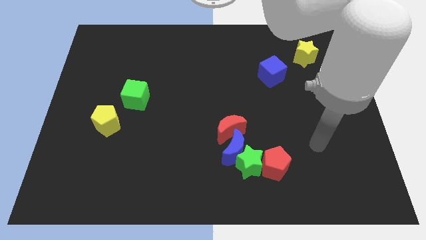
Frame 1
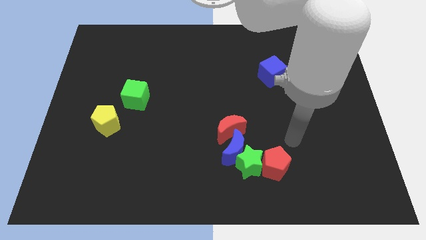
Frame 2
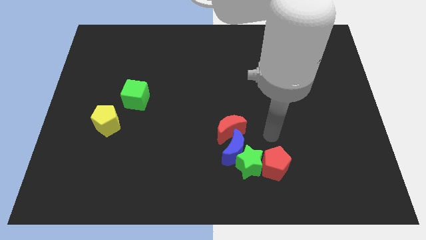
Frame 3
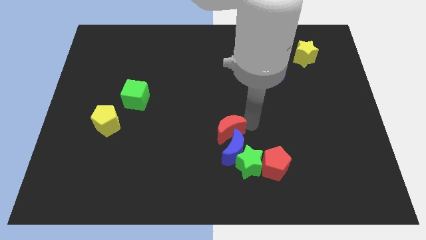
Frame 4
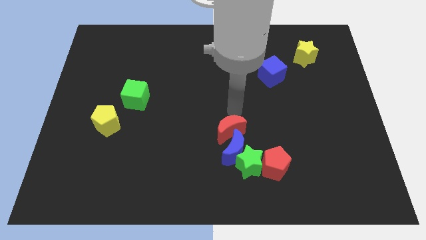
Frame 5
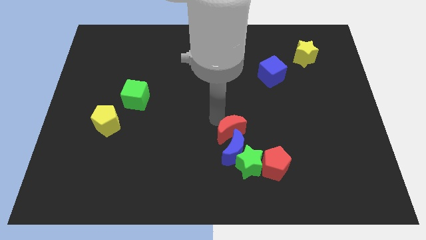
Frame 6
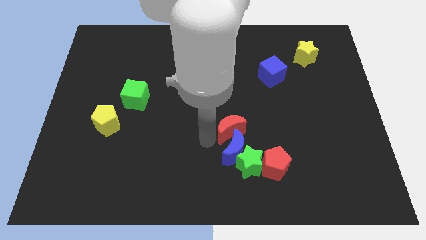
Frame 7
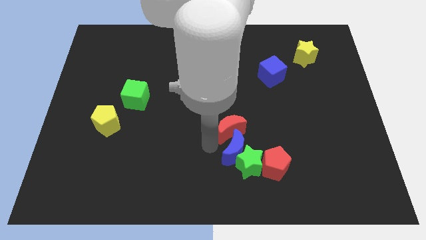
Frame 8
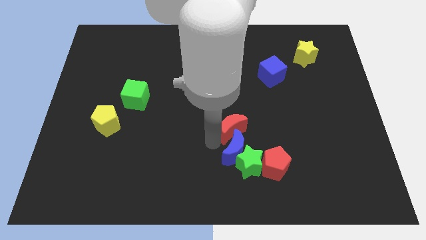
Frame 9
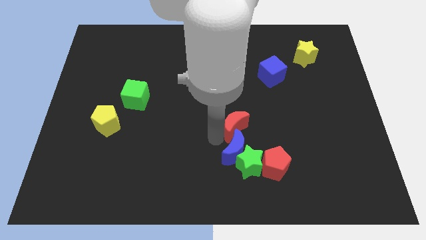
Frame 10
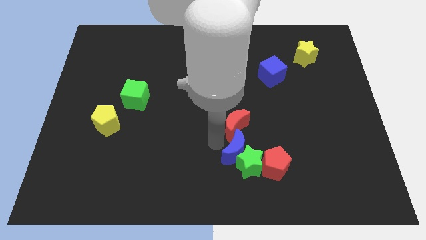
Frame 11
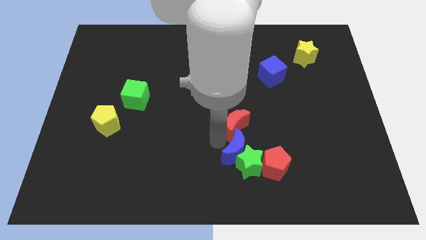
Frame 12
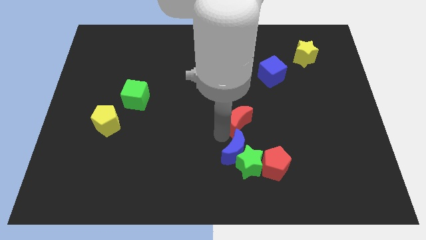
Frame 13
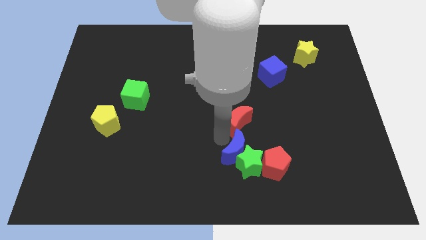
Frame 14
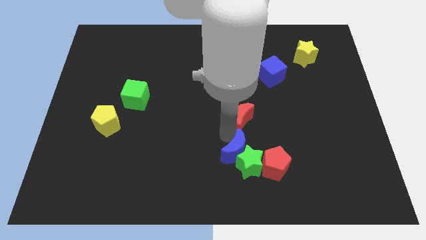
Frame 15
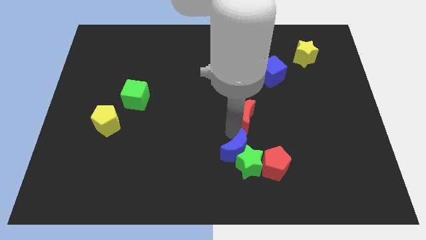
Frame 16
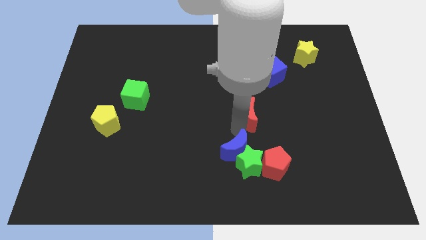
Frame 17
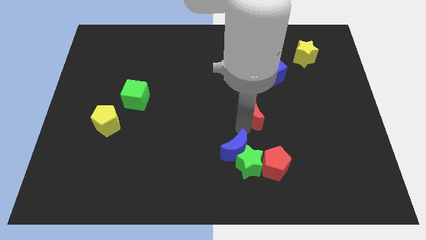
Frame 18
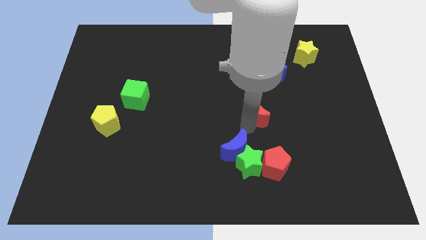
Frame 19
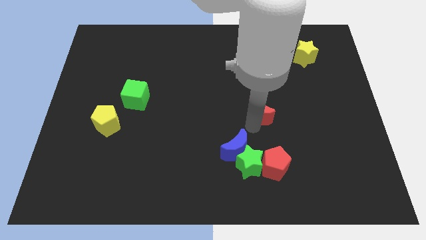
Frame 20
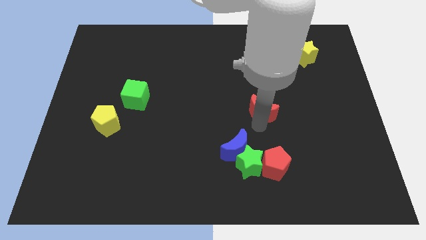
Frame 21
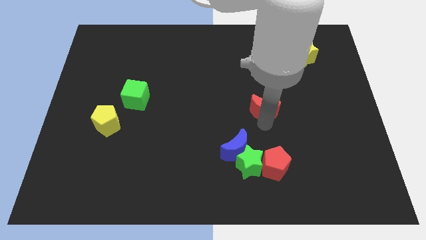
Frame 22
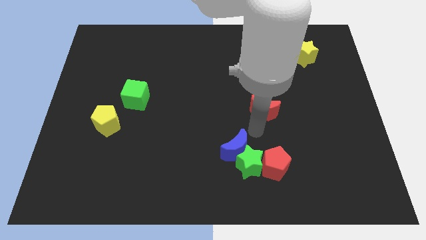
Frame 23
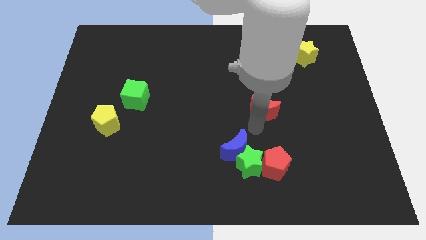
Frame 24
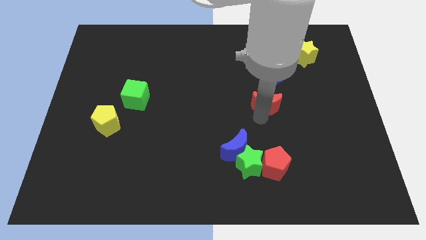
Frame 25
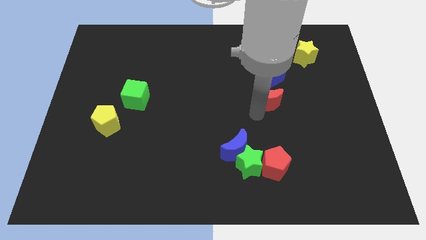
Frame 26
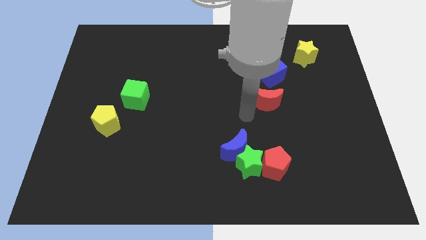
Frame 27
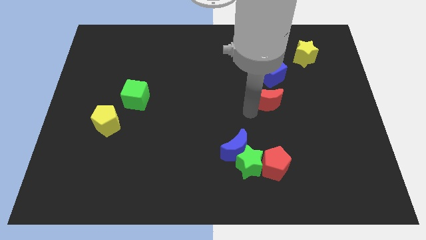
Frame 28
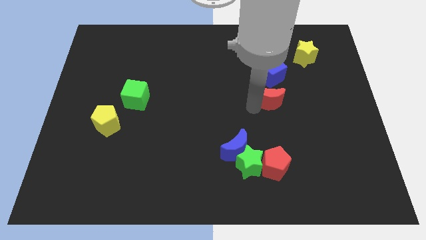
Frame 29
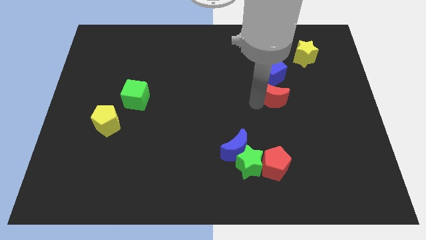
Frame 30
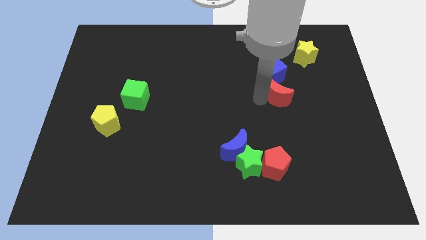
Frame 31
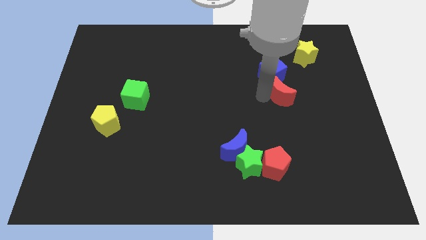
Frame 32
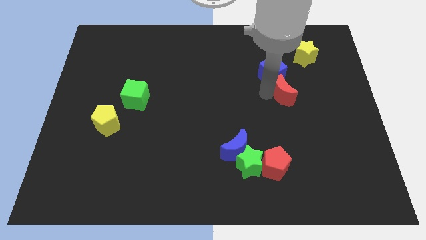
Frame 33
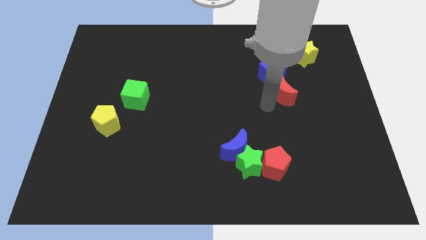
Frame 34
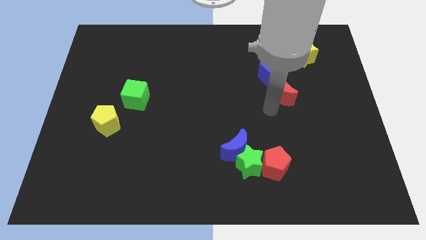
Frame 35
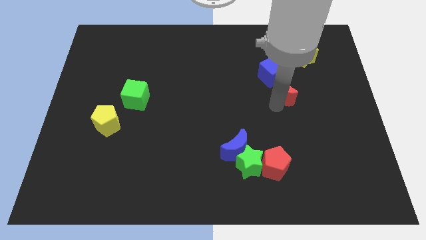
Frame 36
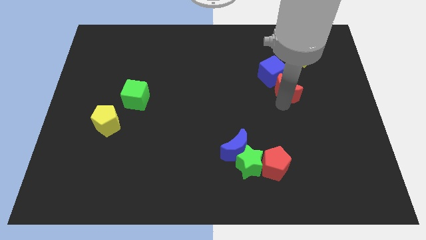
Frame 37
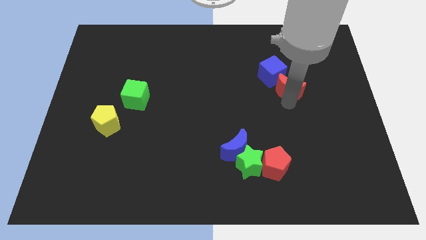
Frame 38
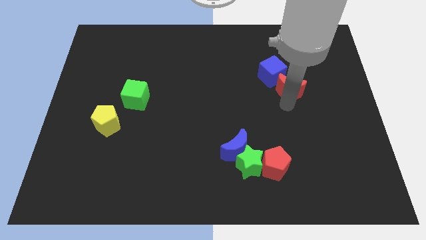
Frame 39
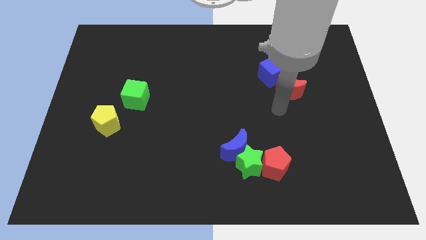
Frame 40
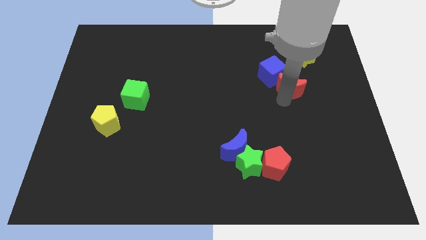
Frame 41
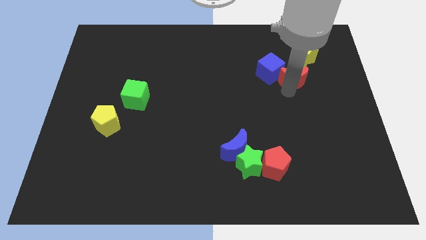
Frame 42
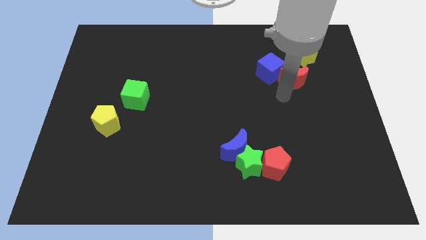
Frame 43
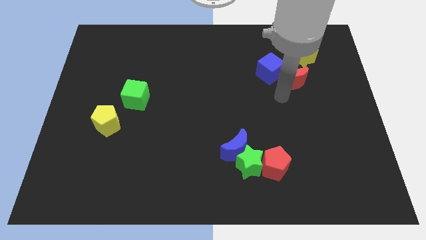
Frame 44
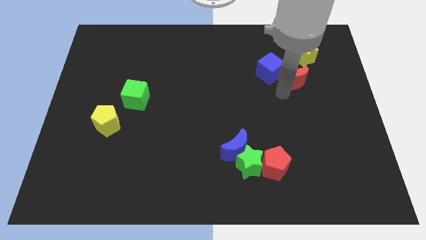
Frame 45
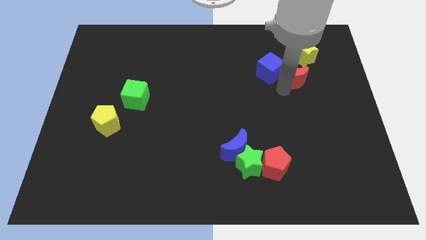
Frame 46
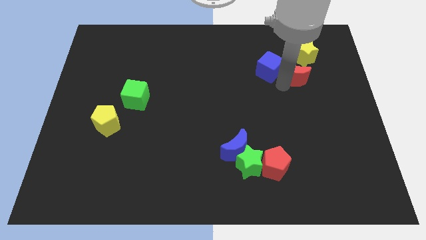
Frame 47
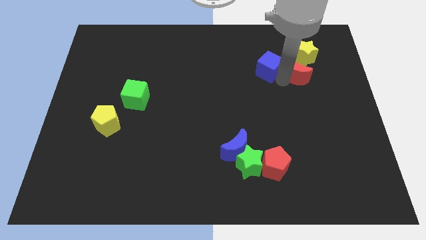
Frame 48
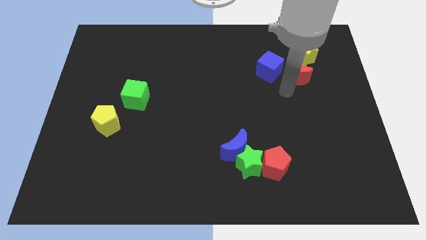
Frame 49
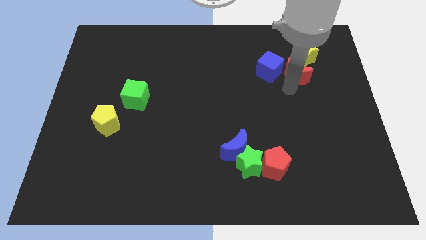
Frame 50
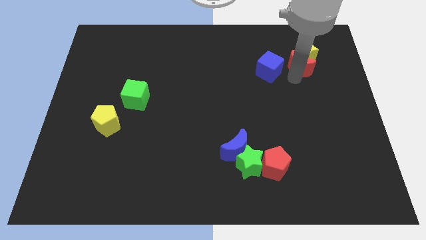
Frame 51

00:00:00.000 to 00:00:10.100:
push the red moon close to the yellow star

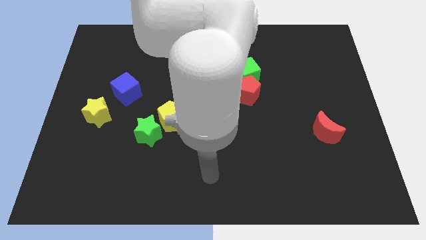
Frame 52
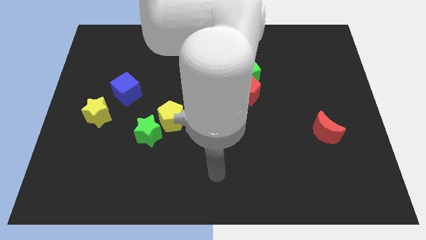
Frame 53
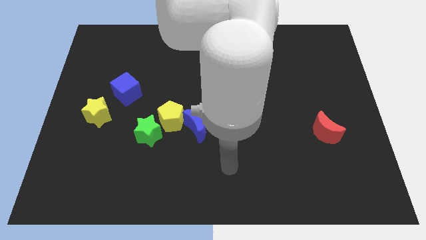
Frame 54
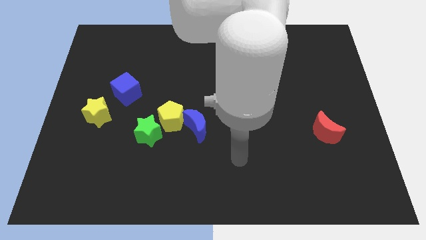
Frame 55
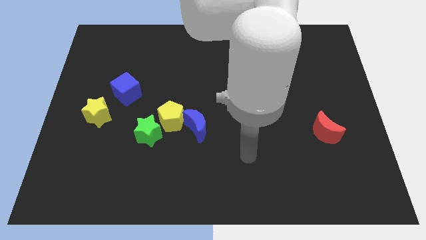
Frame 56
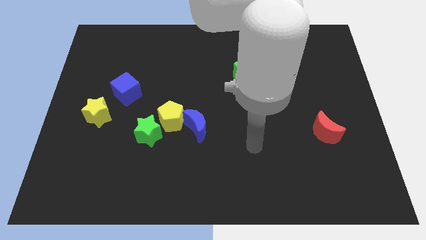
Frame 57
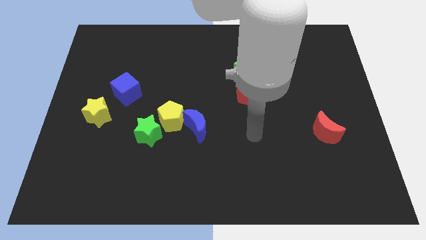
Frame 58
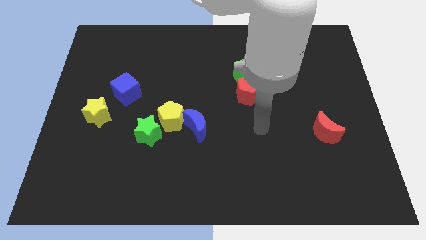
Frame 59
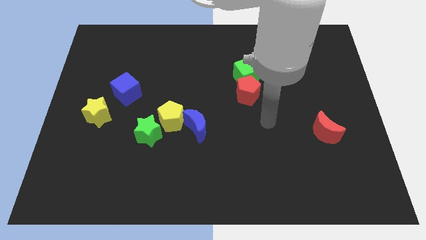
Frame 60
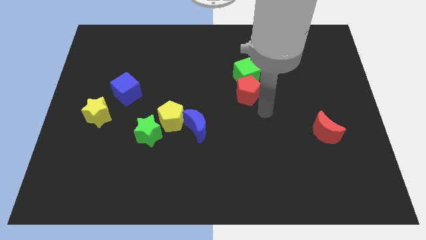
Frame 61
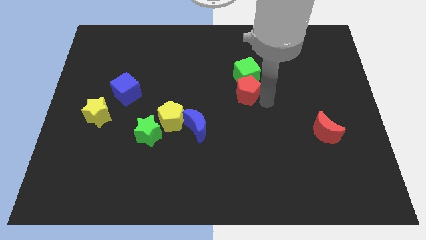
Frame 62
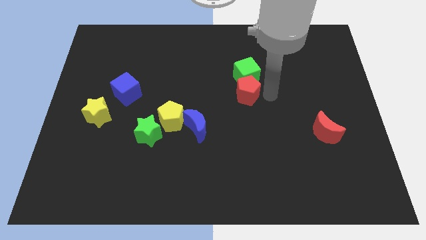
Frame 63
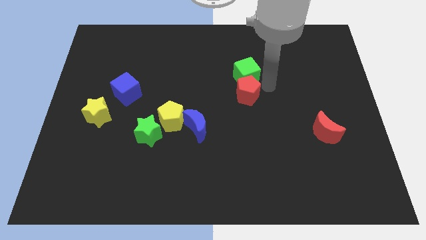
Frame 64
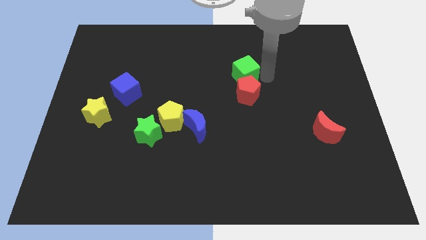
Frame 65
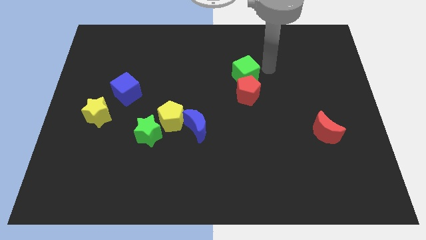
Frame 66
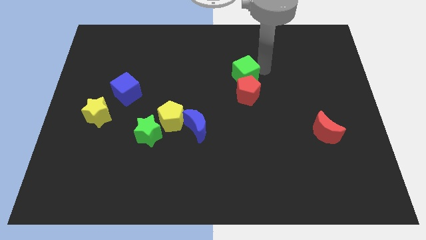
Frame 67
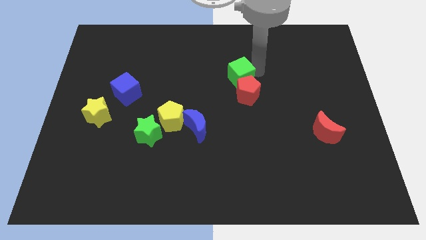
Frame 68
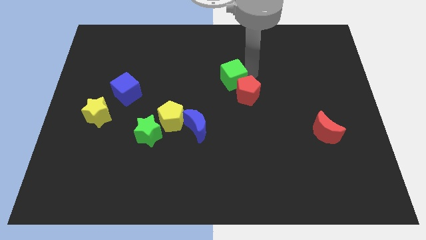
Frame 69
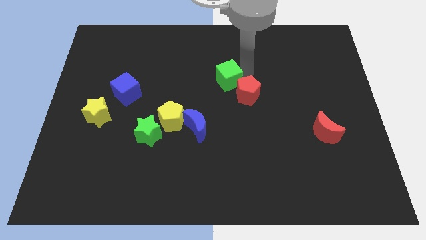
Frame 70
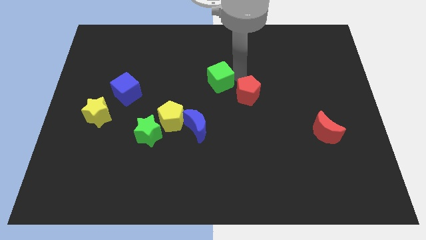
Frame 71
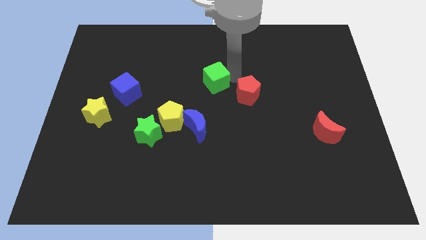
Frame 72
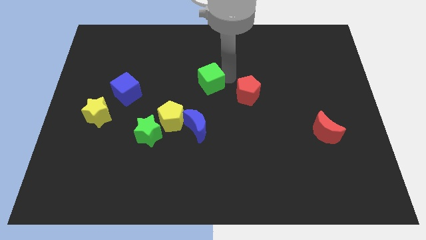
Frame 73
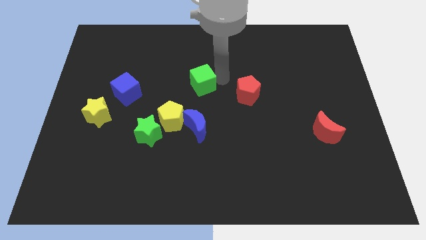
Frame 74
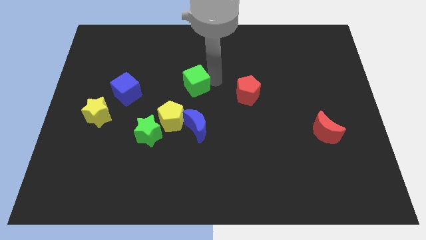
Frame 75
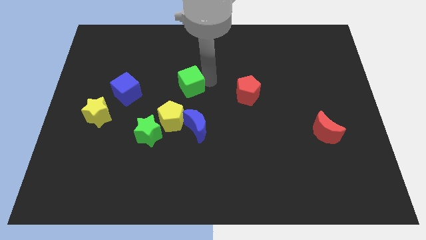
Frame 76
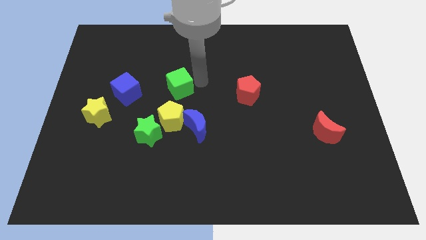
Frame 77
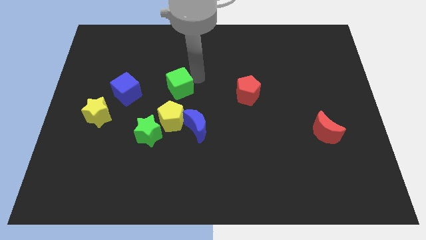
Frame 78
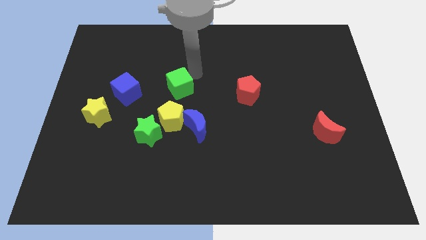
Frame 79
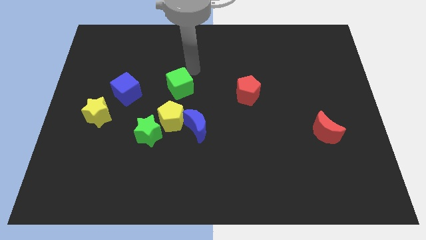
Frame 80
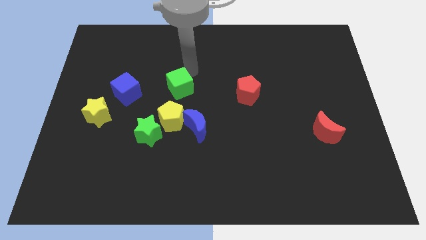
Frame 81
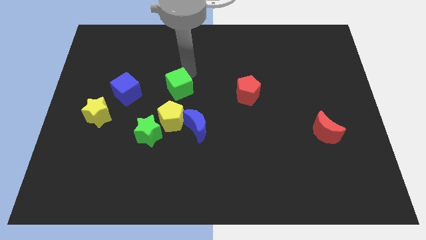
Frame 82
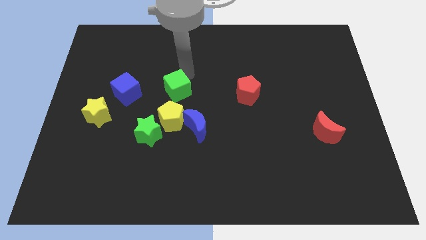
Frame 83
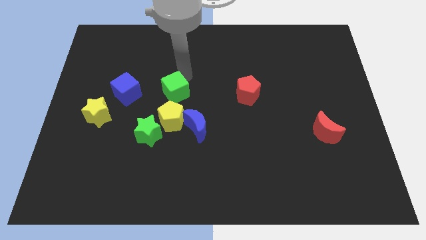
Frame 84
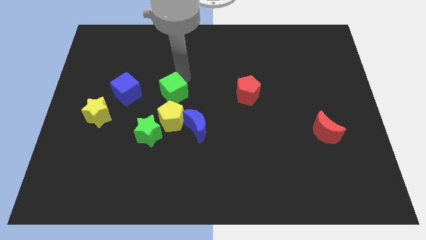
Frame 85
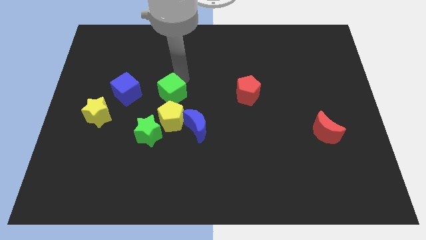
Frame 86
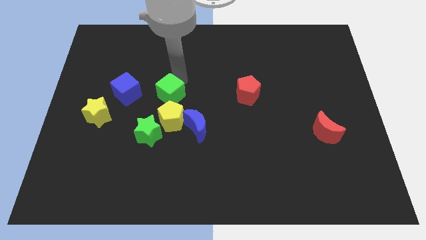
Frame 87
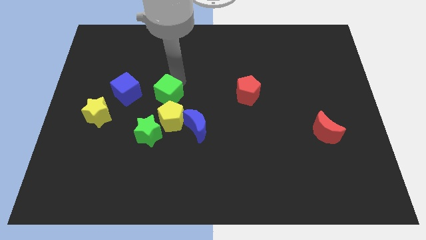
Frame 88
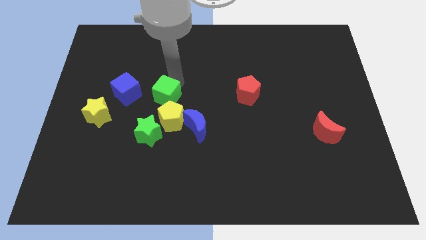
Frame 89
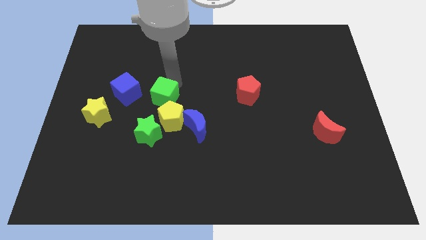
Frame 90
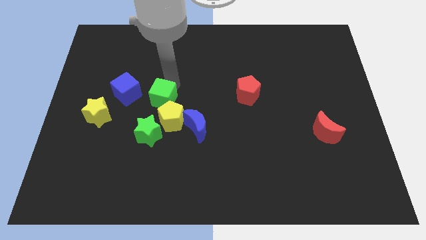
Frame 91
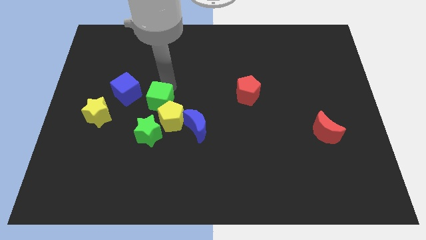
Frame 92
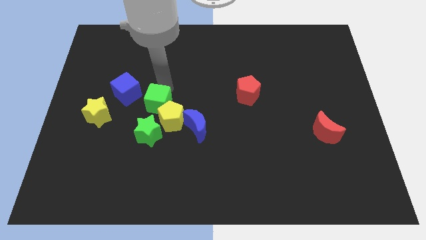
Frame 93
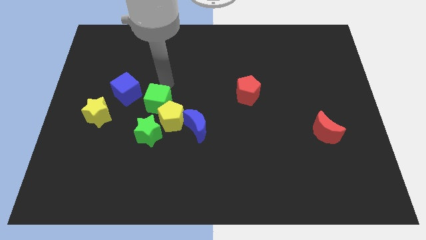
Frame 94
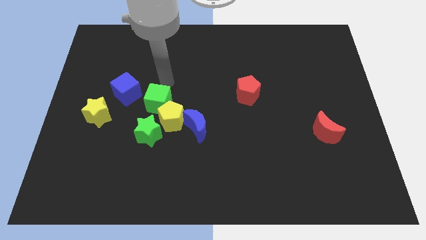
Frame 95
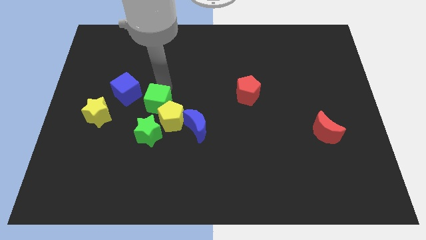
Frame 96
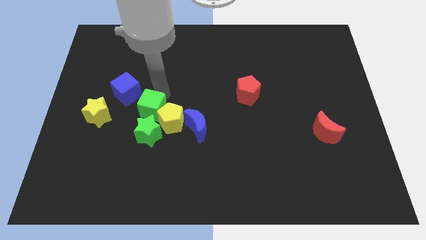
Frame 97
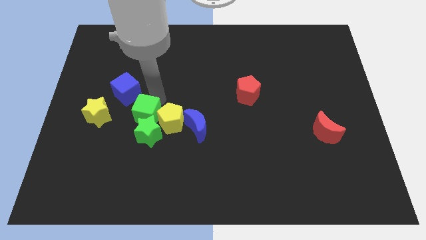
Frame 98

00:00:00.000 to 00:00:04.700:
push the green cube next to the green star
